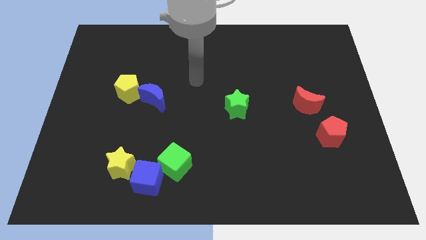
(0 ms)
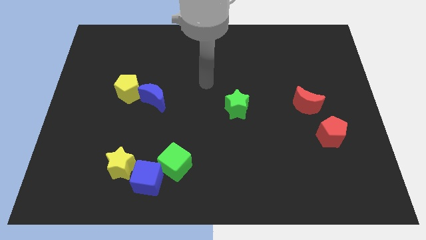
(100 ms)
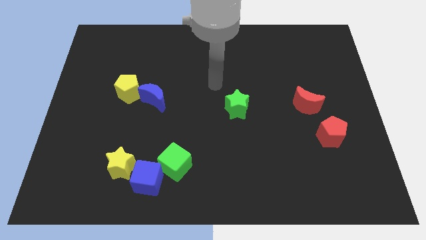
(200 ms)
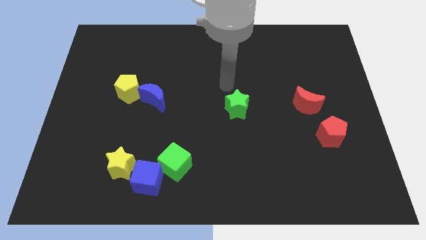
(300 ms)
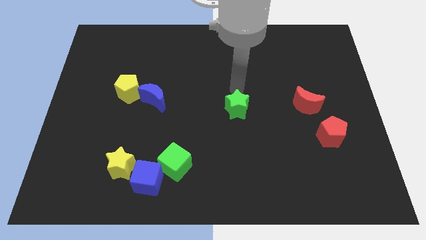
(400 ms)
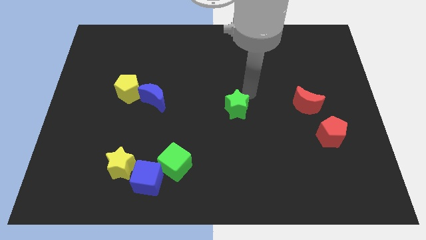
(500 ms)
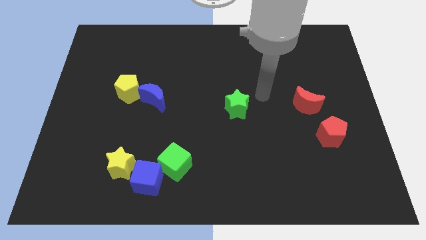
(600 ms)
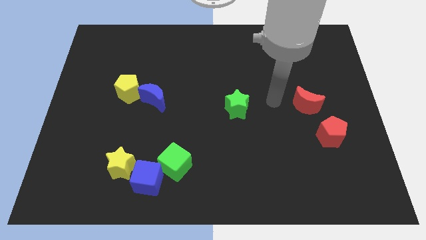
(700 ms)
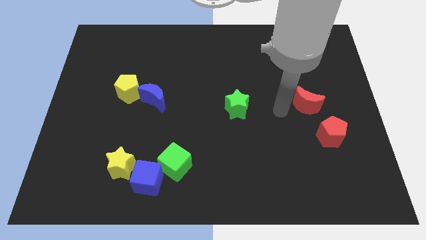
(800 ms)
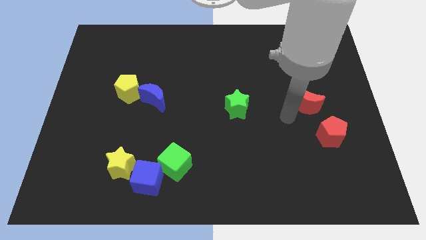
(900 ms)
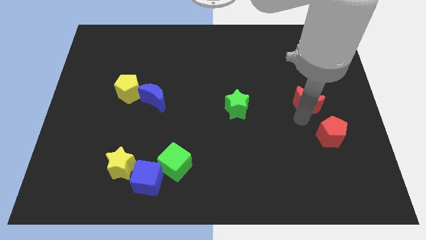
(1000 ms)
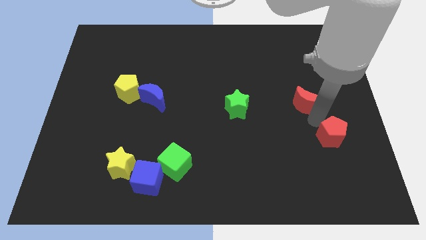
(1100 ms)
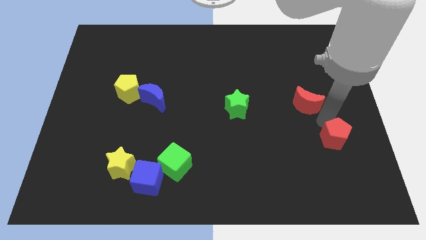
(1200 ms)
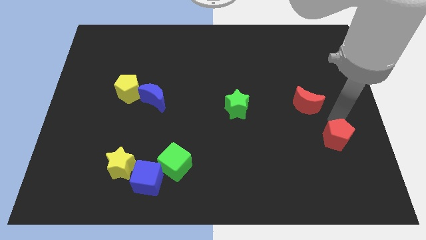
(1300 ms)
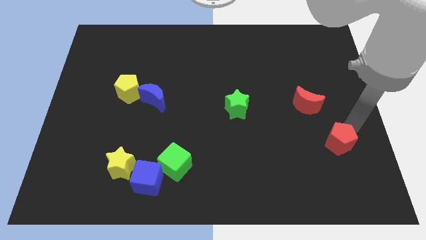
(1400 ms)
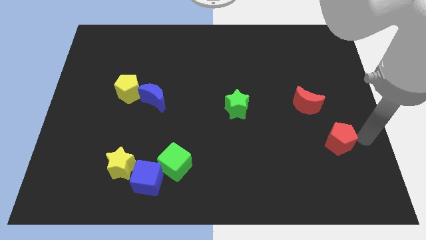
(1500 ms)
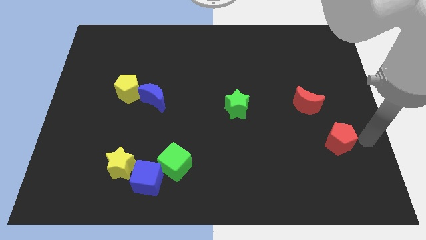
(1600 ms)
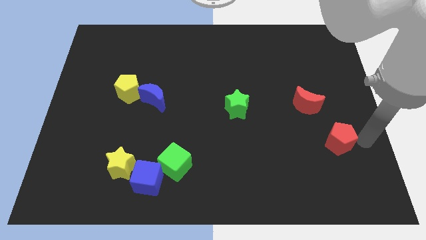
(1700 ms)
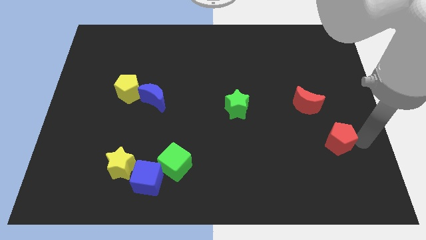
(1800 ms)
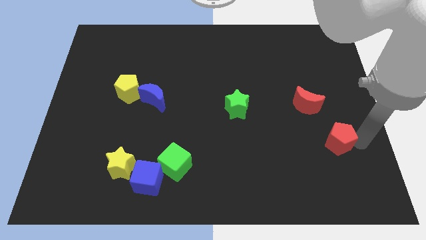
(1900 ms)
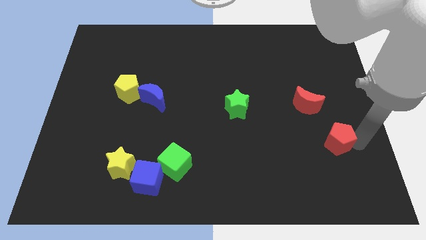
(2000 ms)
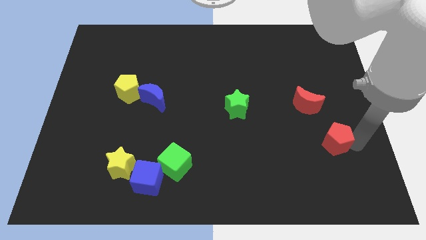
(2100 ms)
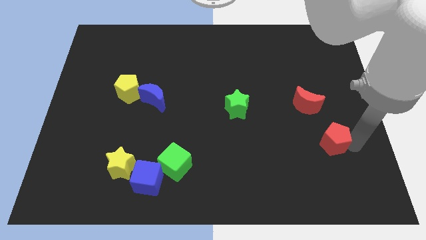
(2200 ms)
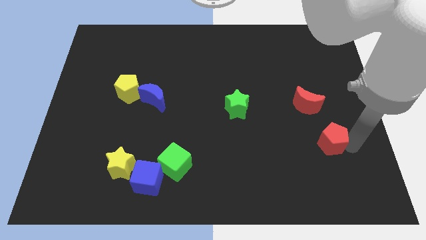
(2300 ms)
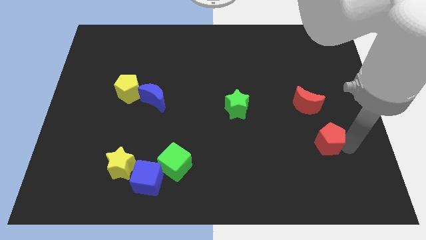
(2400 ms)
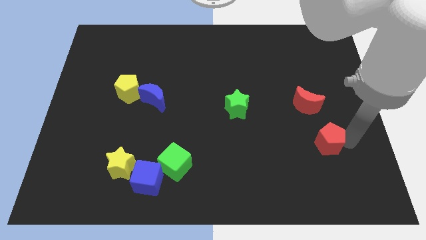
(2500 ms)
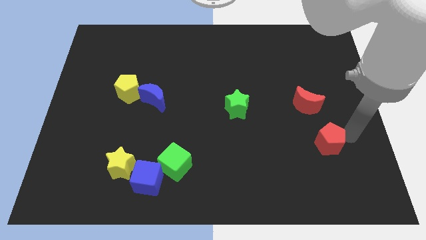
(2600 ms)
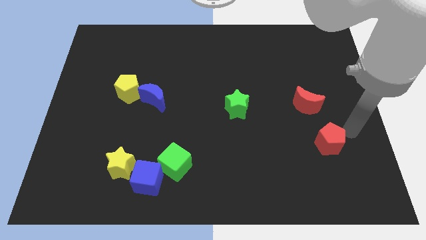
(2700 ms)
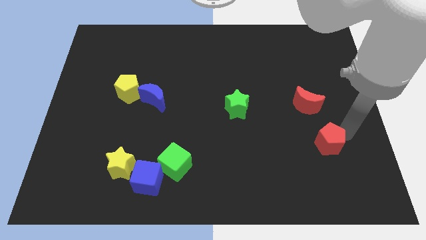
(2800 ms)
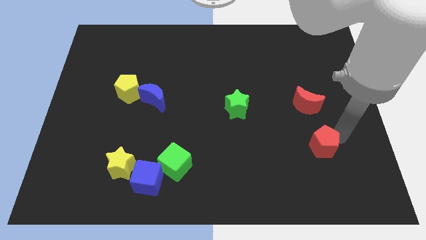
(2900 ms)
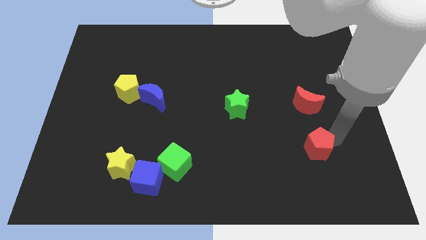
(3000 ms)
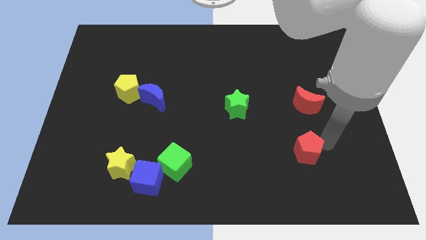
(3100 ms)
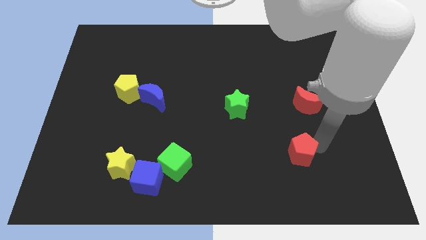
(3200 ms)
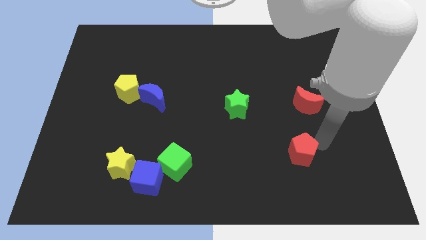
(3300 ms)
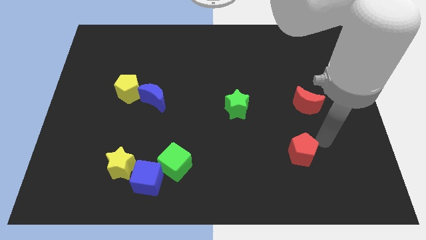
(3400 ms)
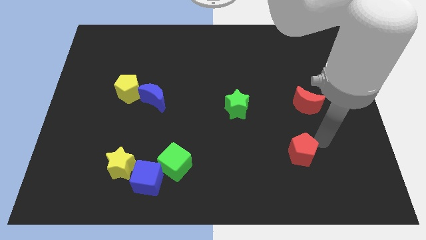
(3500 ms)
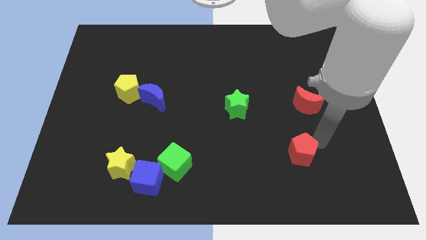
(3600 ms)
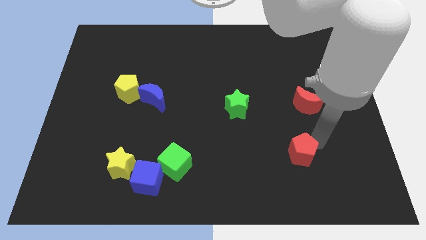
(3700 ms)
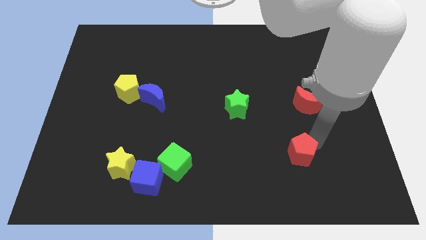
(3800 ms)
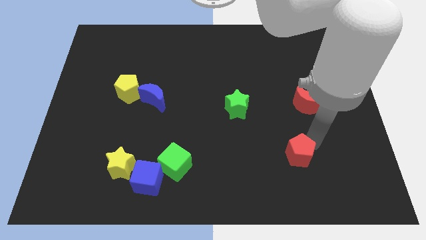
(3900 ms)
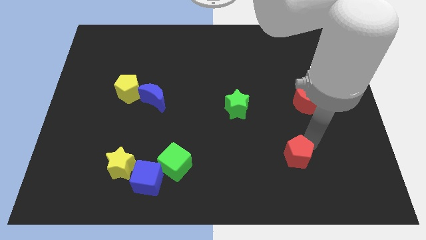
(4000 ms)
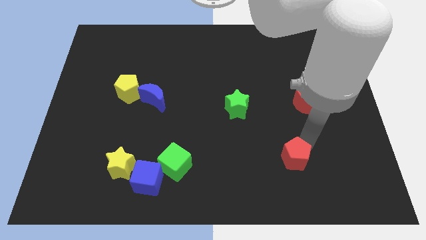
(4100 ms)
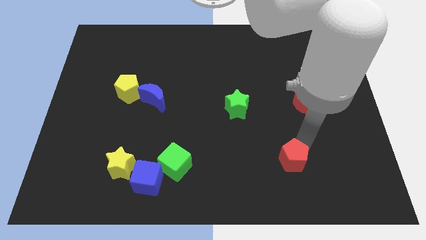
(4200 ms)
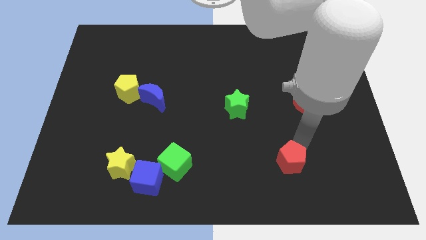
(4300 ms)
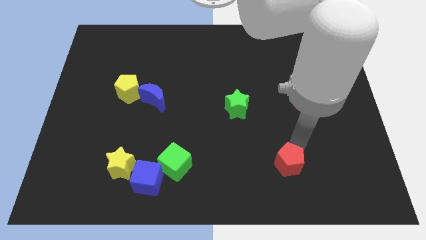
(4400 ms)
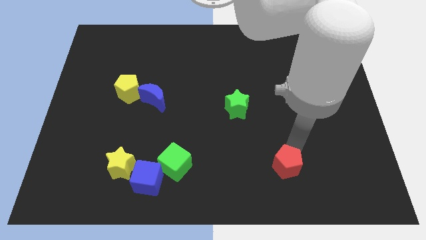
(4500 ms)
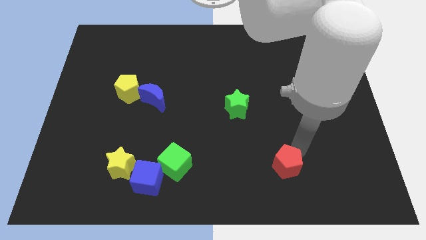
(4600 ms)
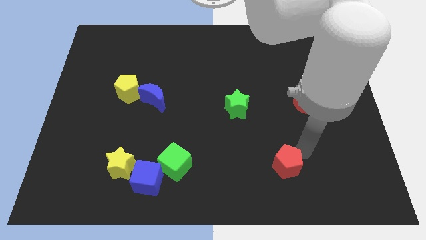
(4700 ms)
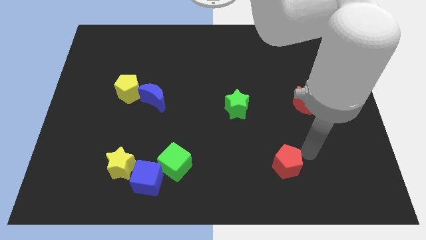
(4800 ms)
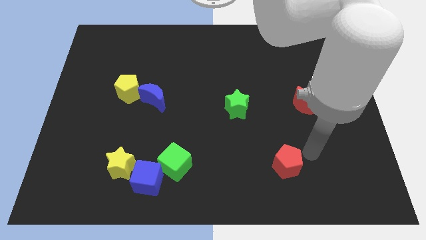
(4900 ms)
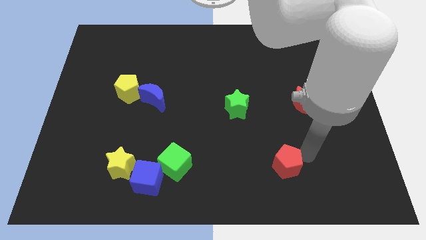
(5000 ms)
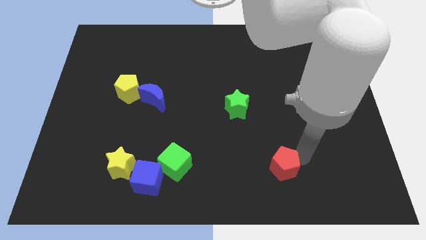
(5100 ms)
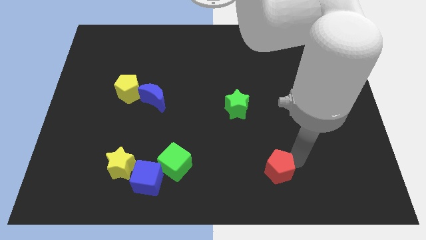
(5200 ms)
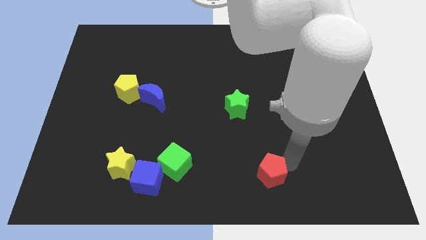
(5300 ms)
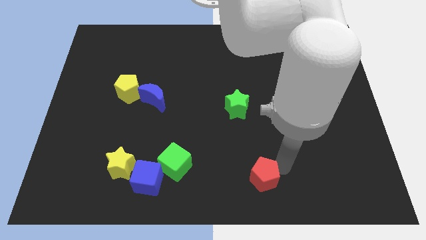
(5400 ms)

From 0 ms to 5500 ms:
push the red pentagon to the bottom
